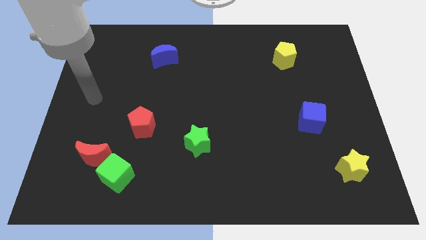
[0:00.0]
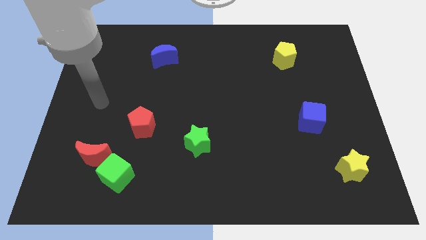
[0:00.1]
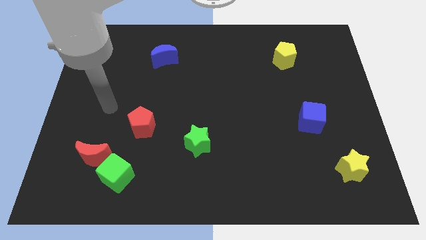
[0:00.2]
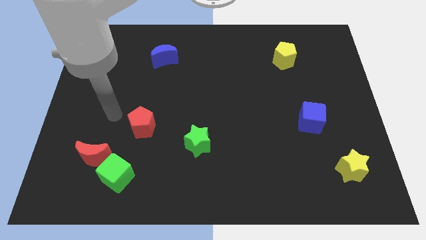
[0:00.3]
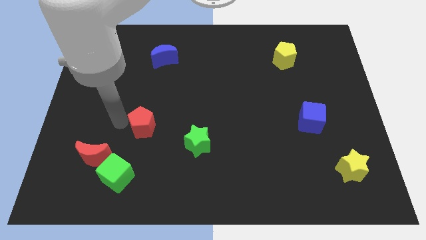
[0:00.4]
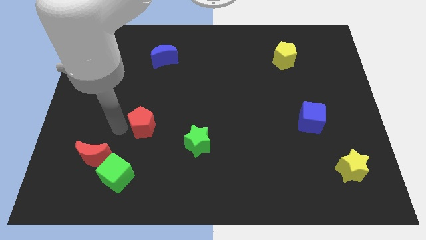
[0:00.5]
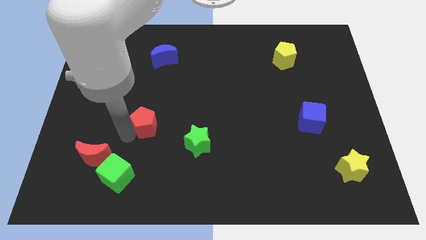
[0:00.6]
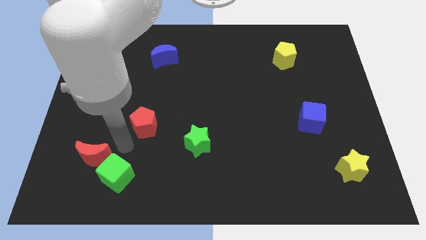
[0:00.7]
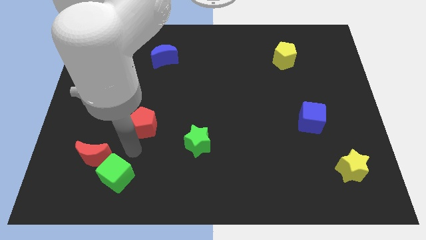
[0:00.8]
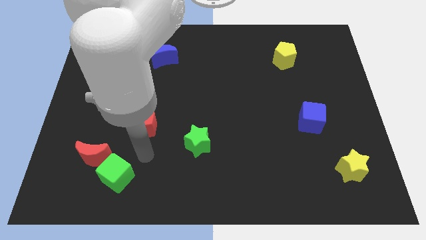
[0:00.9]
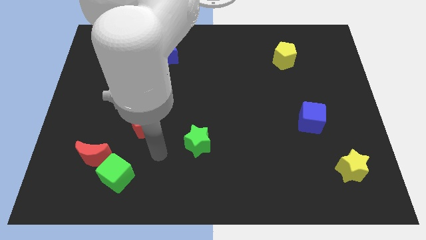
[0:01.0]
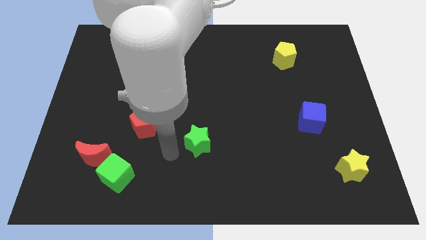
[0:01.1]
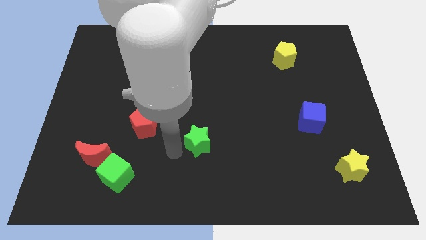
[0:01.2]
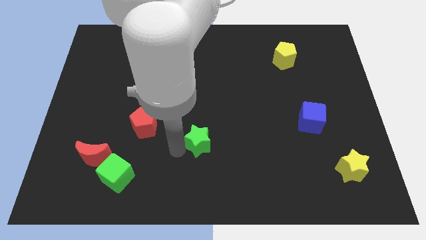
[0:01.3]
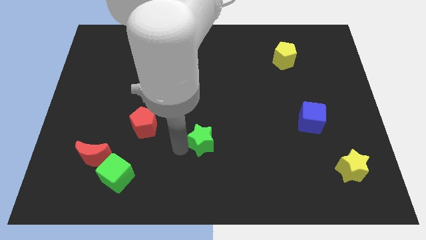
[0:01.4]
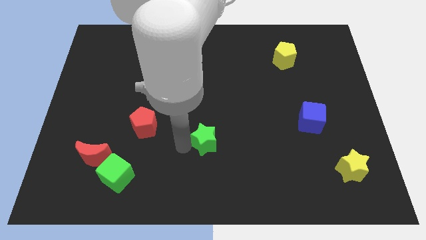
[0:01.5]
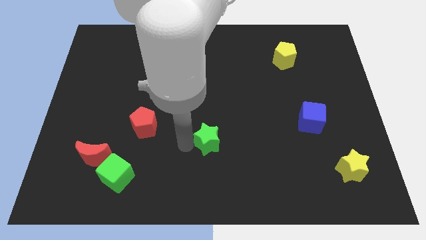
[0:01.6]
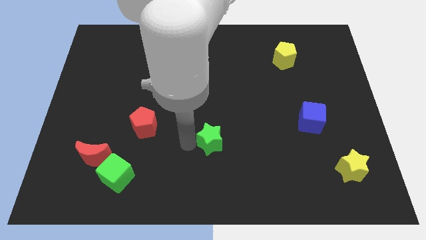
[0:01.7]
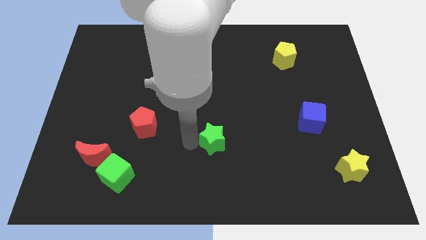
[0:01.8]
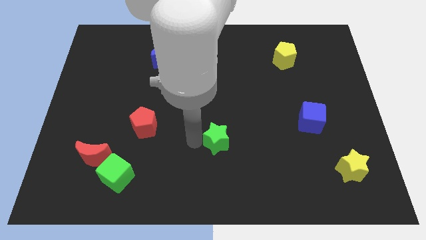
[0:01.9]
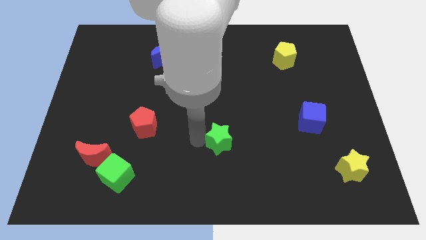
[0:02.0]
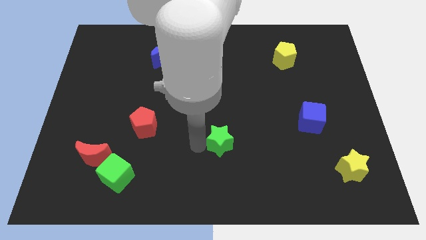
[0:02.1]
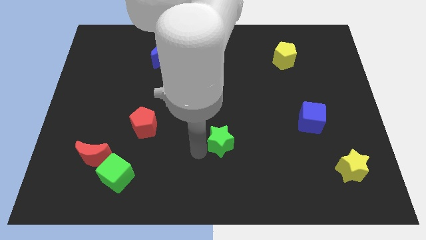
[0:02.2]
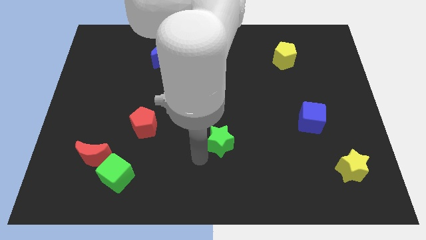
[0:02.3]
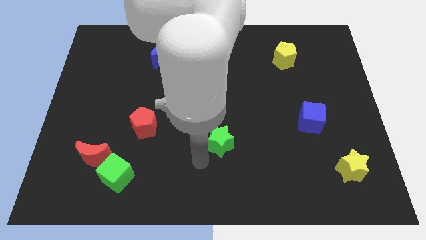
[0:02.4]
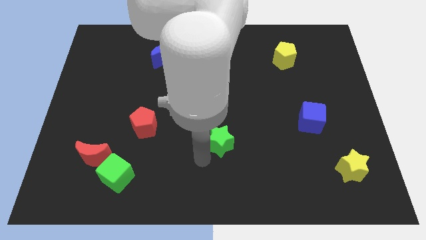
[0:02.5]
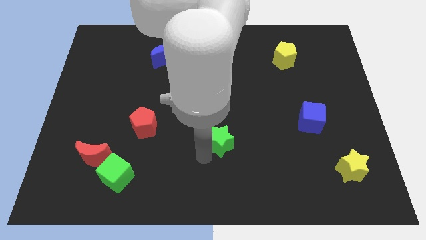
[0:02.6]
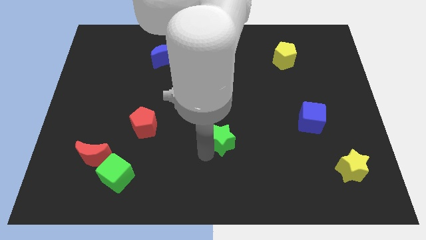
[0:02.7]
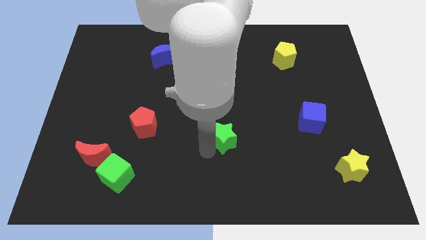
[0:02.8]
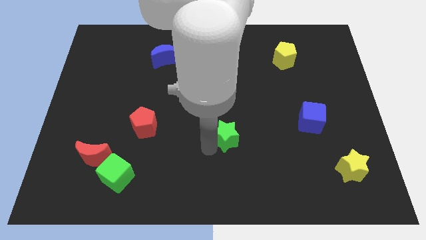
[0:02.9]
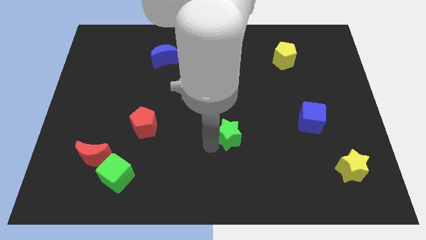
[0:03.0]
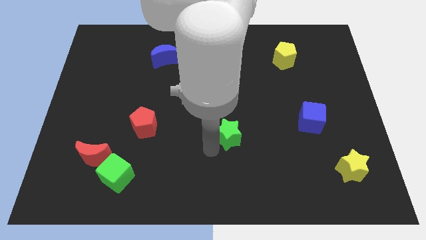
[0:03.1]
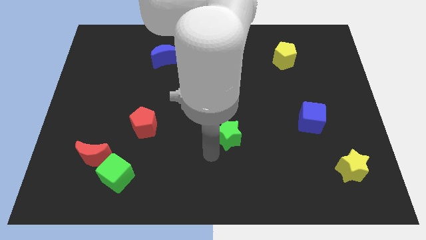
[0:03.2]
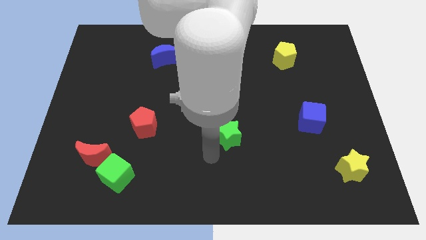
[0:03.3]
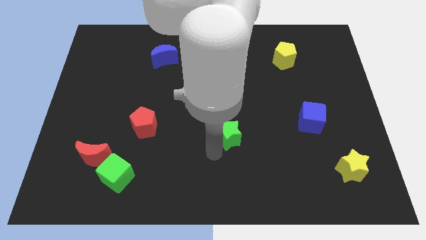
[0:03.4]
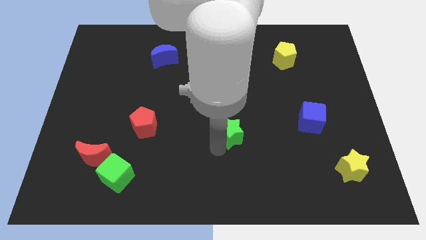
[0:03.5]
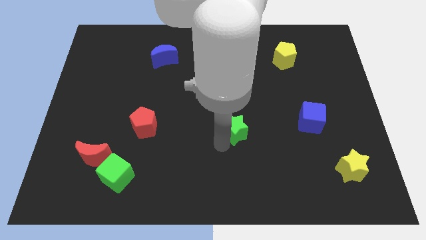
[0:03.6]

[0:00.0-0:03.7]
slide the green star a bit up and to the right diagonally

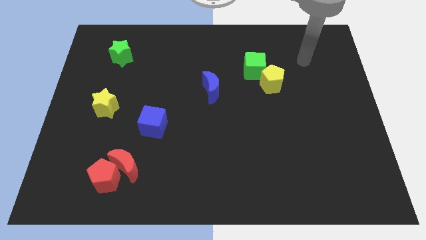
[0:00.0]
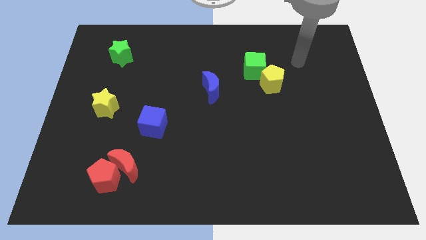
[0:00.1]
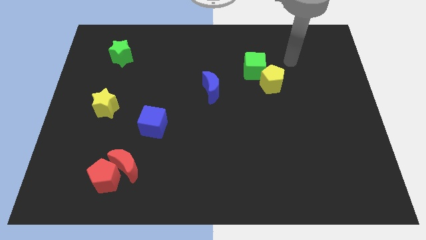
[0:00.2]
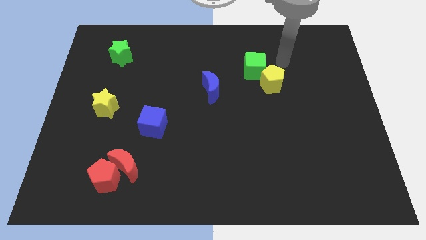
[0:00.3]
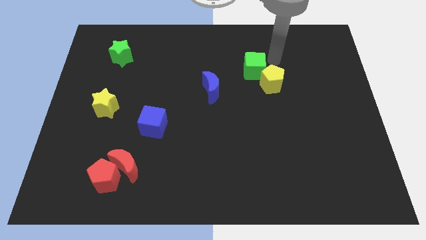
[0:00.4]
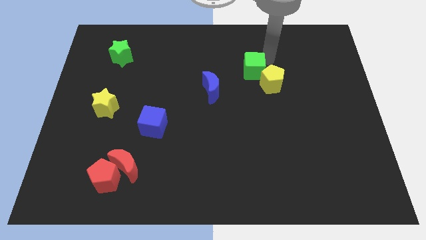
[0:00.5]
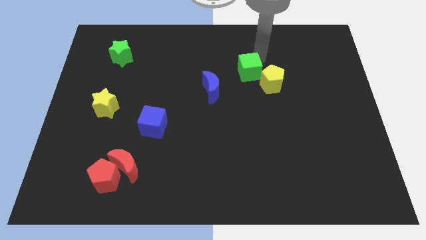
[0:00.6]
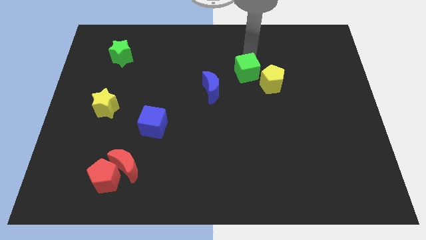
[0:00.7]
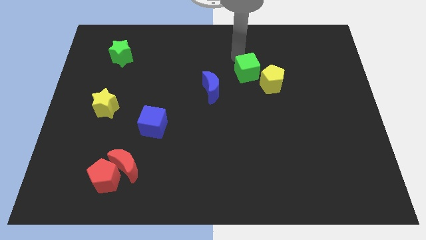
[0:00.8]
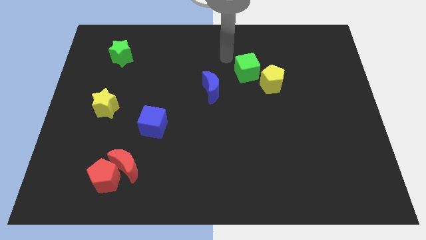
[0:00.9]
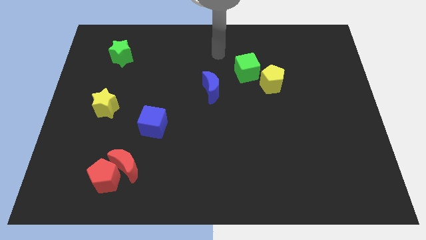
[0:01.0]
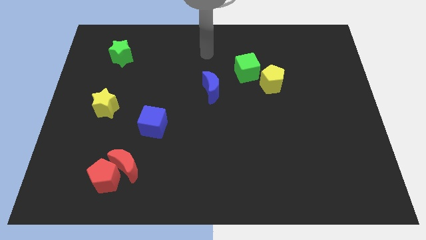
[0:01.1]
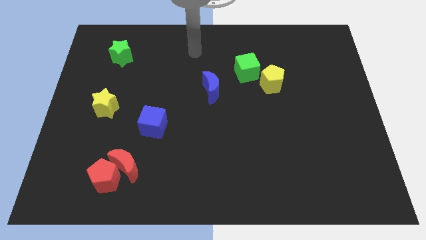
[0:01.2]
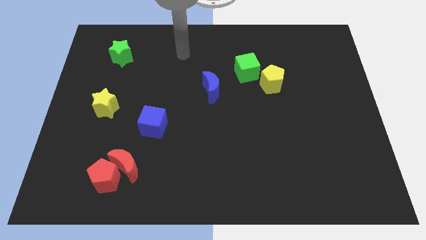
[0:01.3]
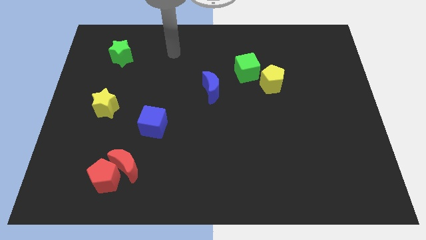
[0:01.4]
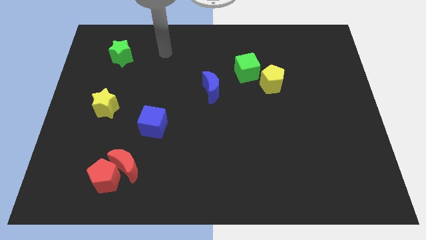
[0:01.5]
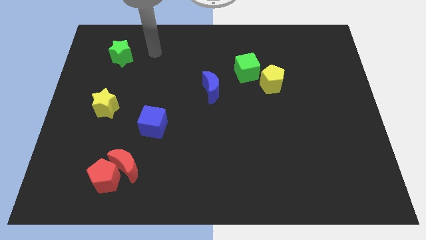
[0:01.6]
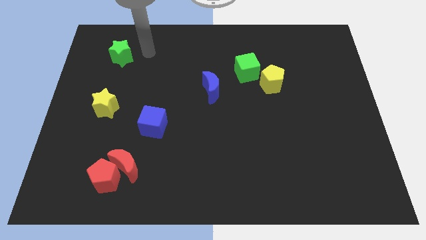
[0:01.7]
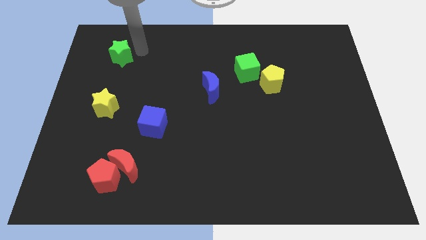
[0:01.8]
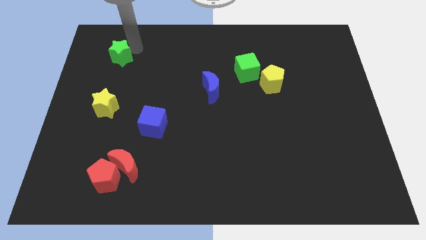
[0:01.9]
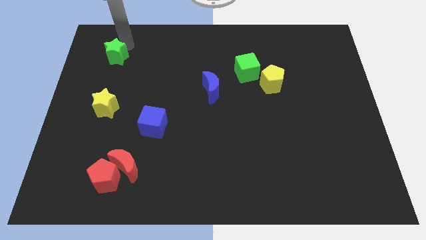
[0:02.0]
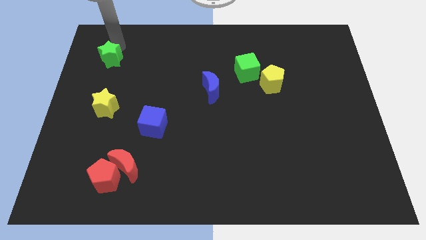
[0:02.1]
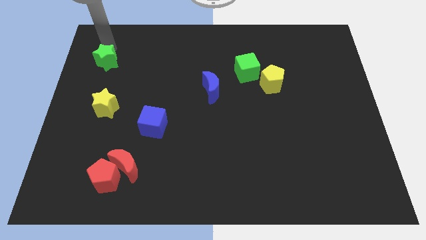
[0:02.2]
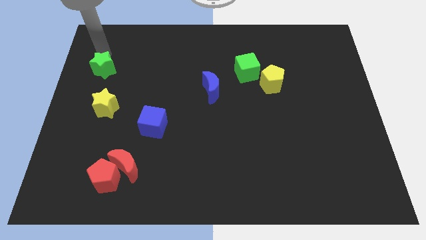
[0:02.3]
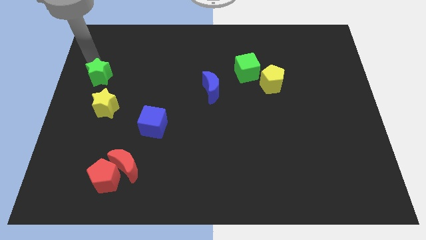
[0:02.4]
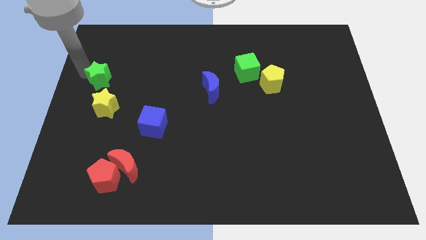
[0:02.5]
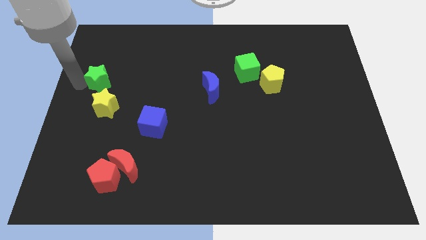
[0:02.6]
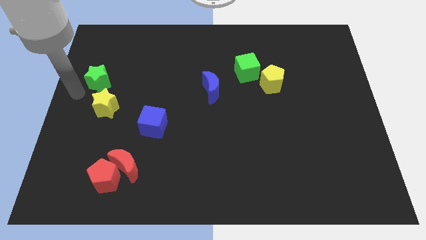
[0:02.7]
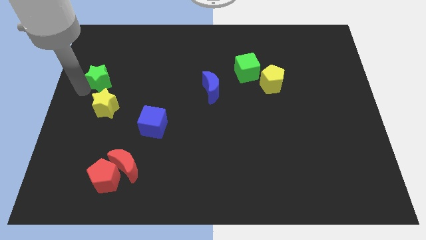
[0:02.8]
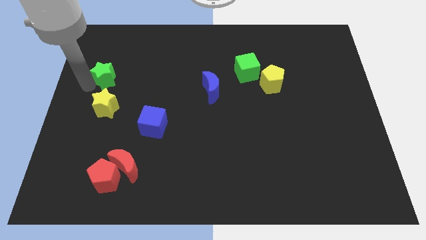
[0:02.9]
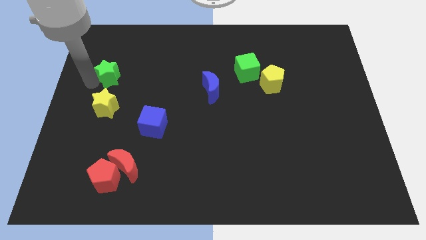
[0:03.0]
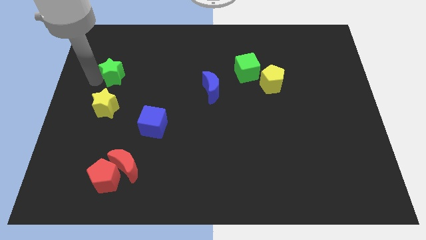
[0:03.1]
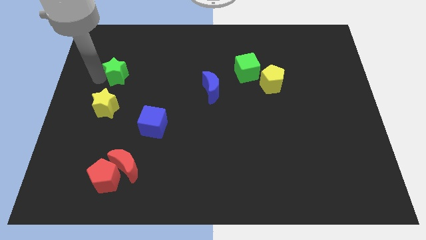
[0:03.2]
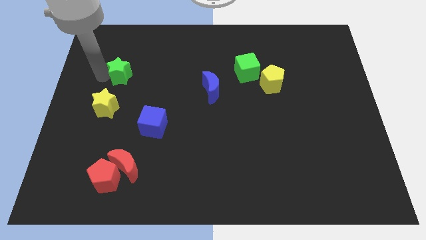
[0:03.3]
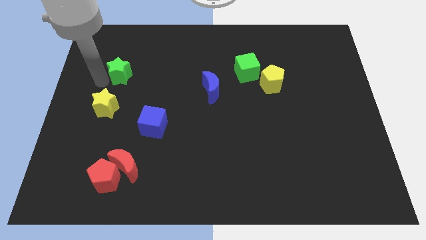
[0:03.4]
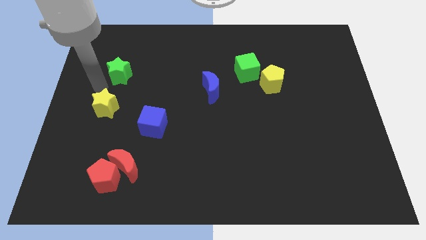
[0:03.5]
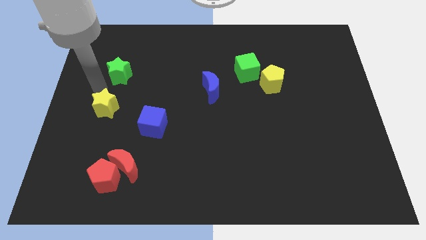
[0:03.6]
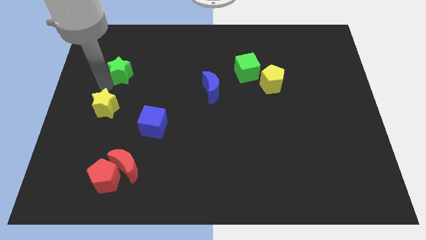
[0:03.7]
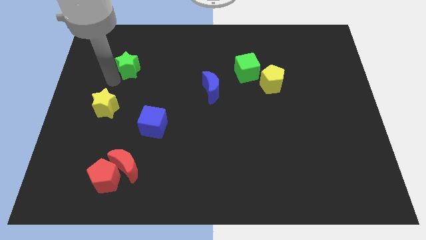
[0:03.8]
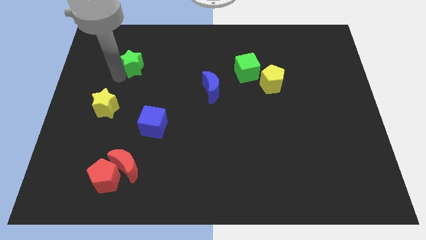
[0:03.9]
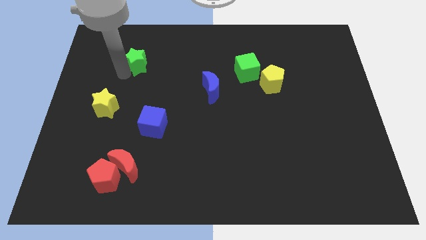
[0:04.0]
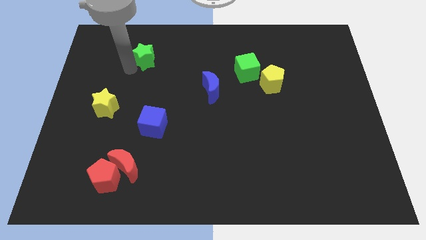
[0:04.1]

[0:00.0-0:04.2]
slightly push the green star to the right

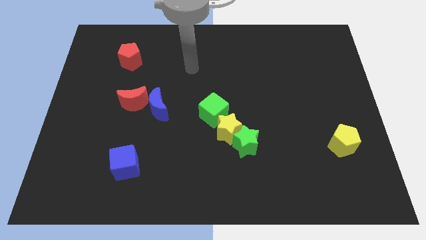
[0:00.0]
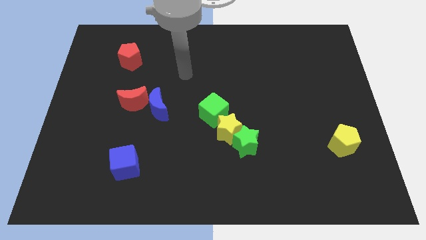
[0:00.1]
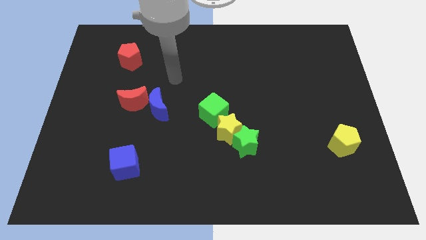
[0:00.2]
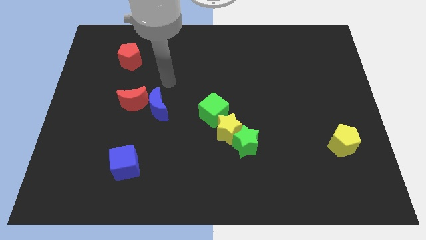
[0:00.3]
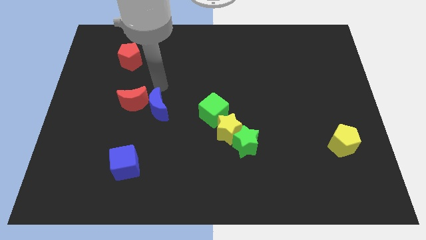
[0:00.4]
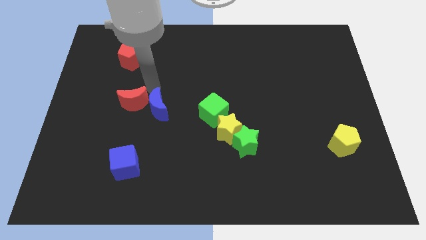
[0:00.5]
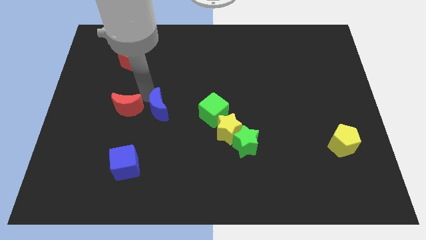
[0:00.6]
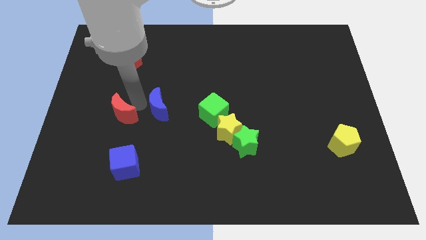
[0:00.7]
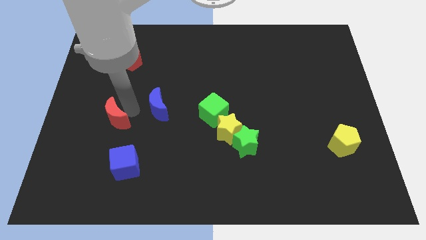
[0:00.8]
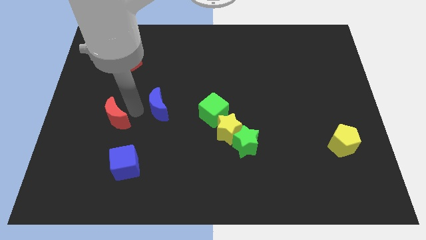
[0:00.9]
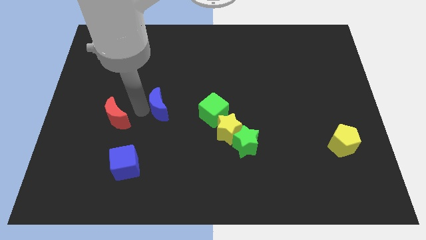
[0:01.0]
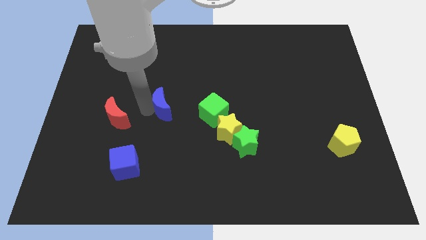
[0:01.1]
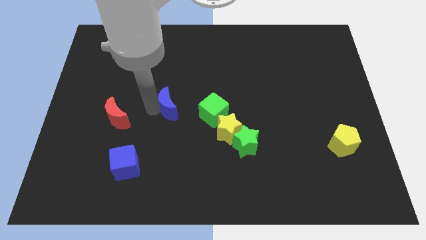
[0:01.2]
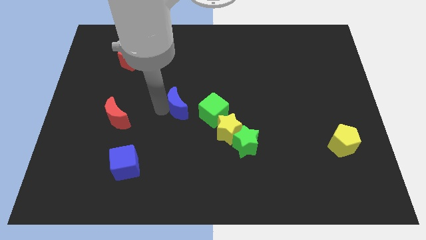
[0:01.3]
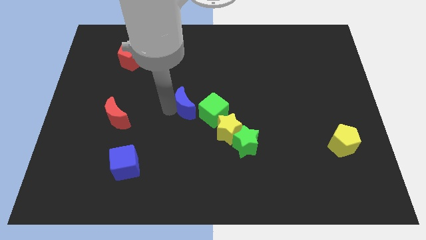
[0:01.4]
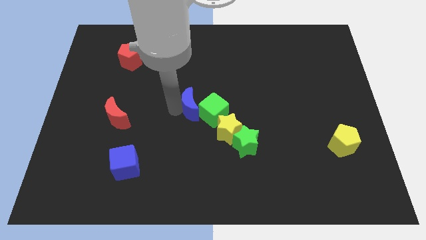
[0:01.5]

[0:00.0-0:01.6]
slide the blue moon slightly to the right
